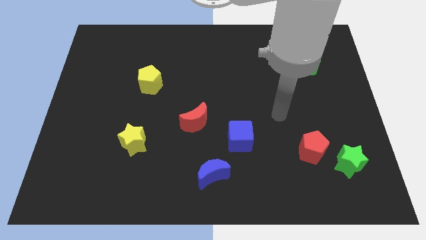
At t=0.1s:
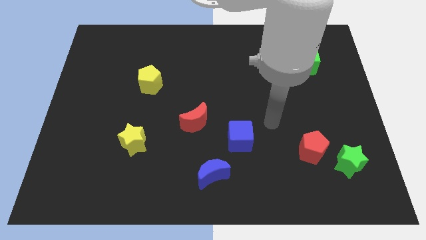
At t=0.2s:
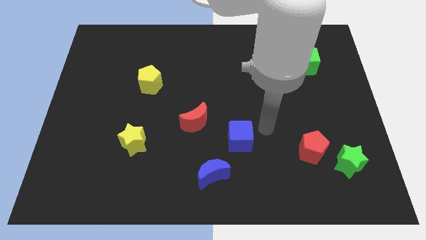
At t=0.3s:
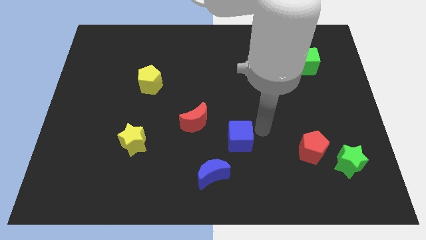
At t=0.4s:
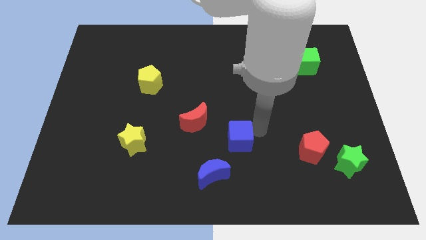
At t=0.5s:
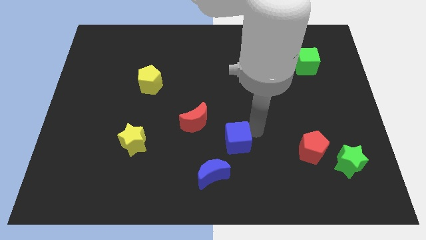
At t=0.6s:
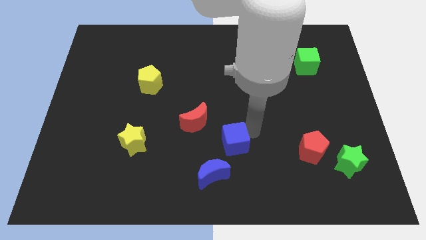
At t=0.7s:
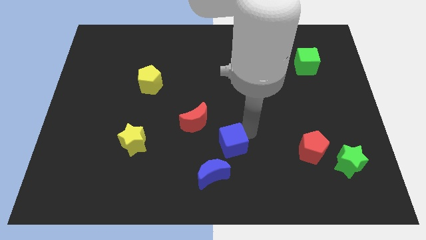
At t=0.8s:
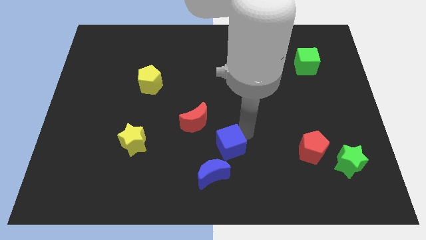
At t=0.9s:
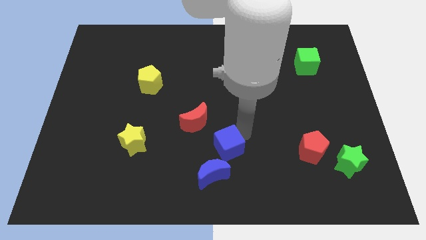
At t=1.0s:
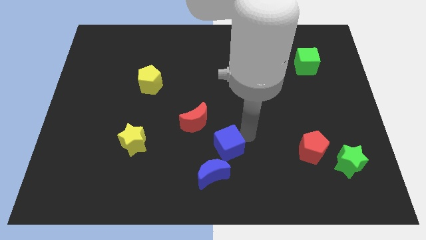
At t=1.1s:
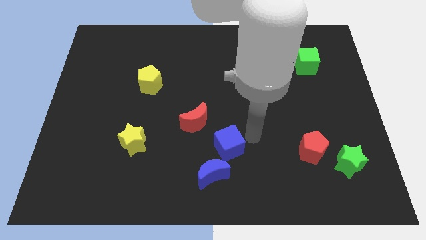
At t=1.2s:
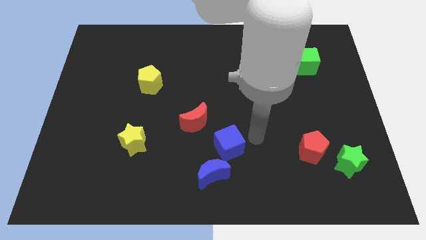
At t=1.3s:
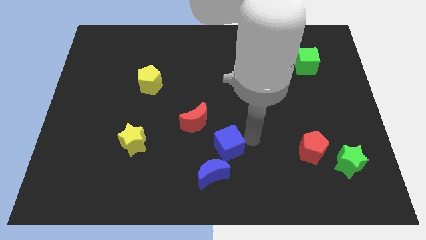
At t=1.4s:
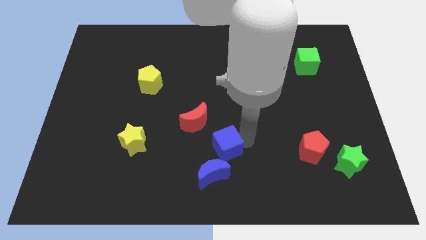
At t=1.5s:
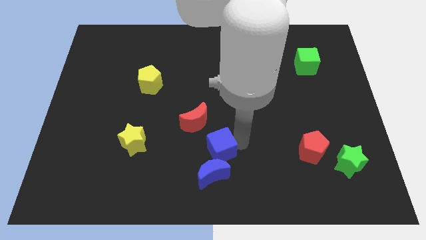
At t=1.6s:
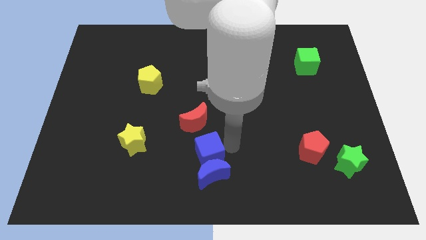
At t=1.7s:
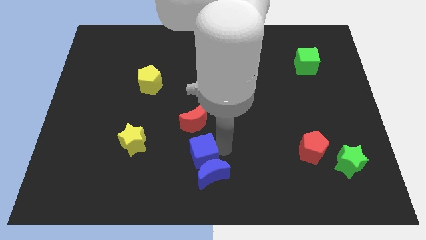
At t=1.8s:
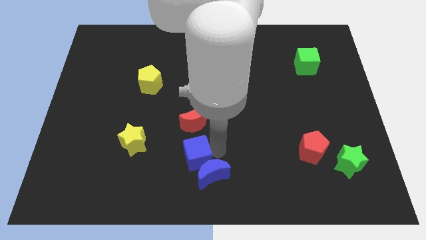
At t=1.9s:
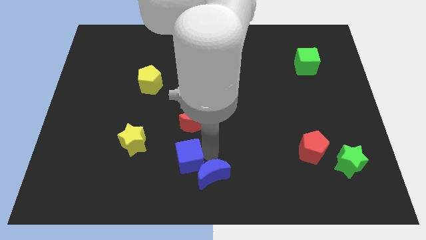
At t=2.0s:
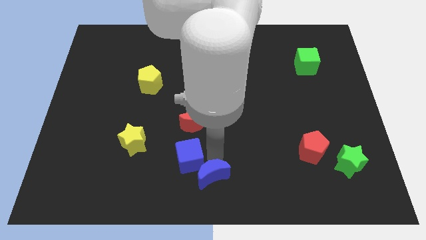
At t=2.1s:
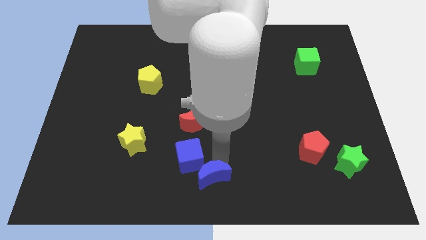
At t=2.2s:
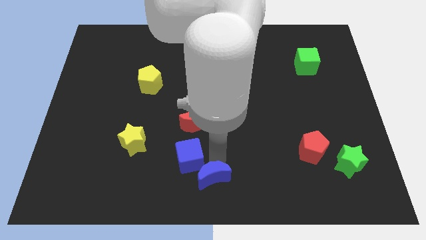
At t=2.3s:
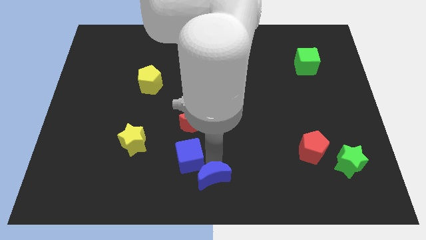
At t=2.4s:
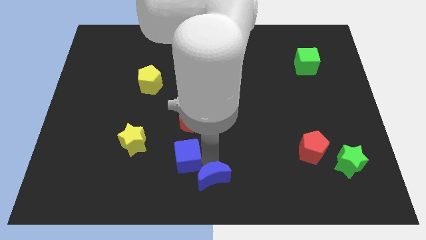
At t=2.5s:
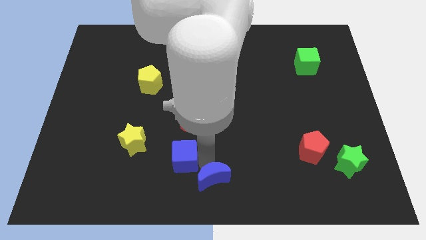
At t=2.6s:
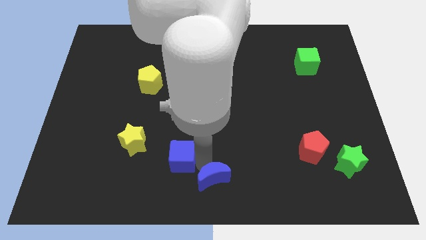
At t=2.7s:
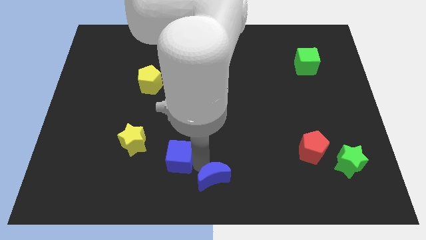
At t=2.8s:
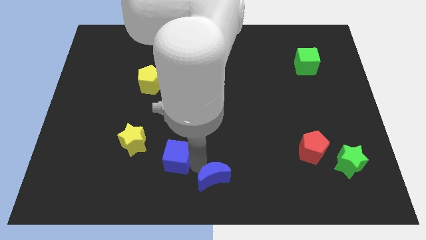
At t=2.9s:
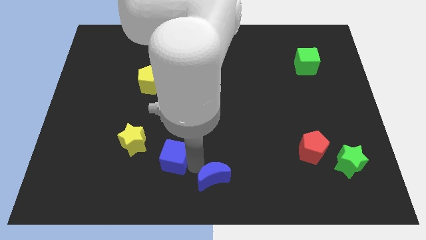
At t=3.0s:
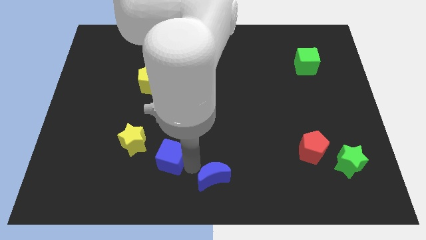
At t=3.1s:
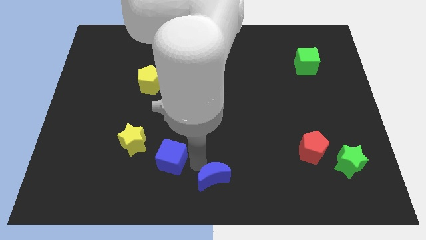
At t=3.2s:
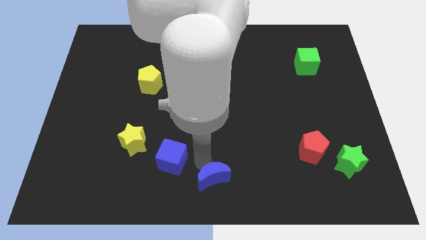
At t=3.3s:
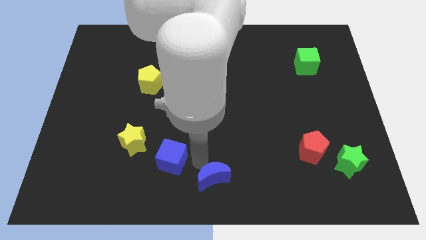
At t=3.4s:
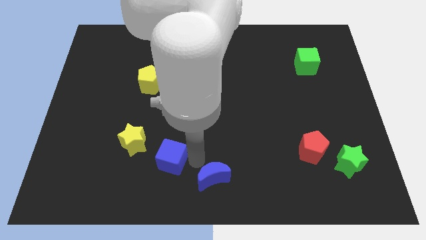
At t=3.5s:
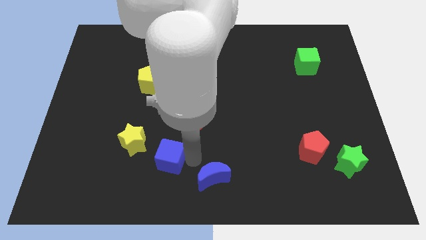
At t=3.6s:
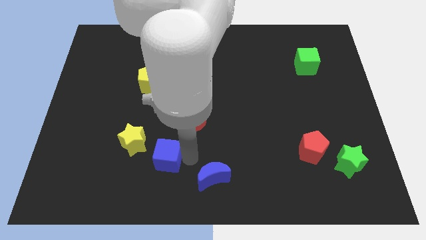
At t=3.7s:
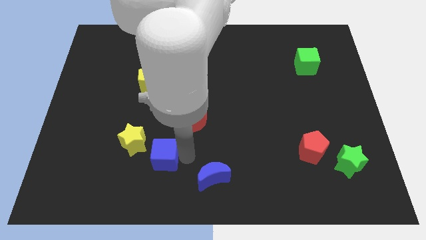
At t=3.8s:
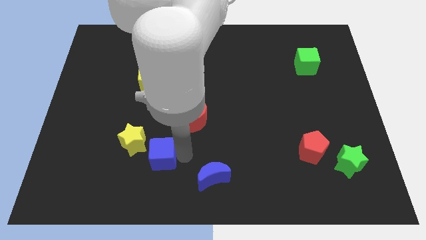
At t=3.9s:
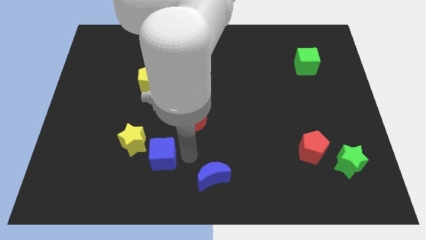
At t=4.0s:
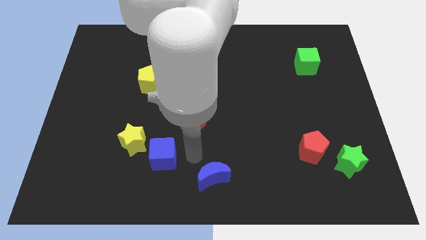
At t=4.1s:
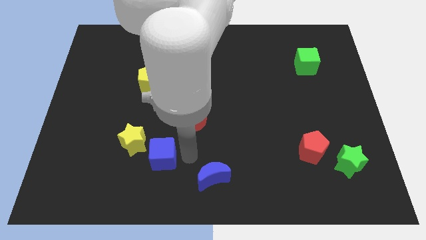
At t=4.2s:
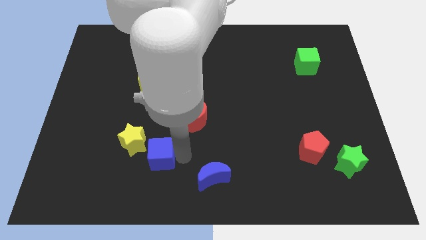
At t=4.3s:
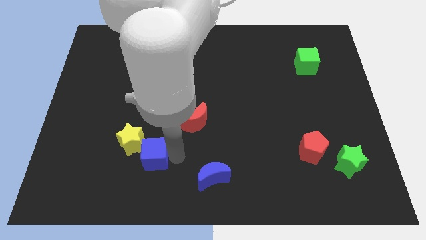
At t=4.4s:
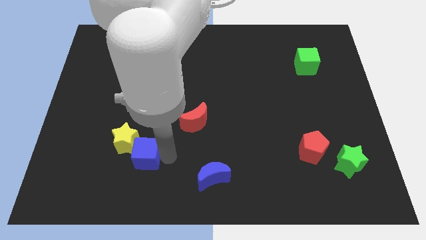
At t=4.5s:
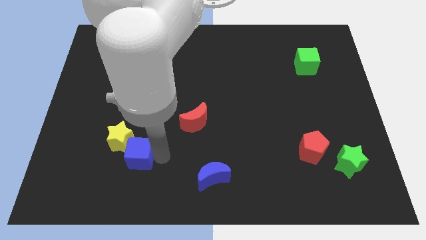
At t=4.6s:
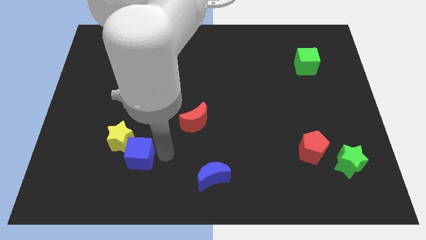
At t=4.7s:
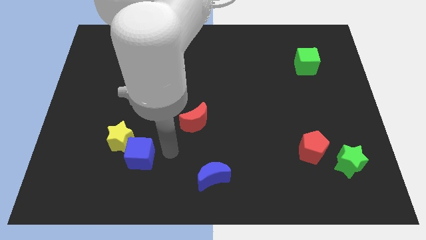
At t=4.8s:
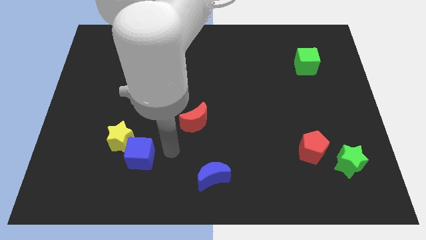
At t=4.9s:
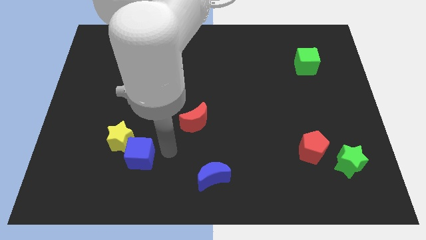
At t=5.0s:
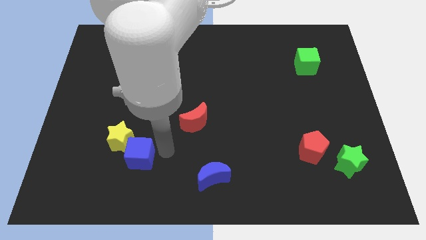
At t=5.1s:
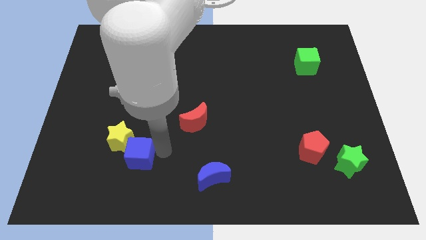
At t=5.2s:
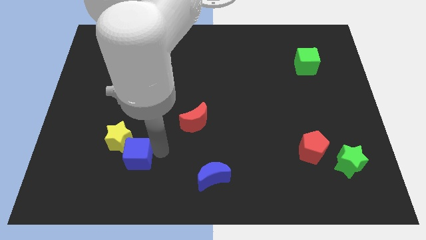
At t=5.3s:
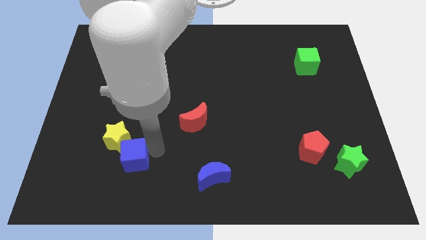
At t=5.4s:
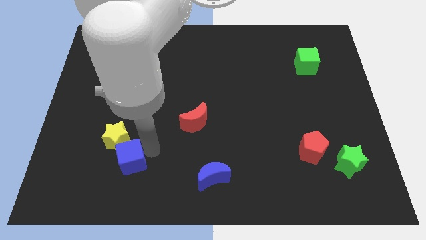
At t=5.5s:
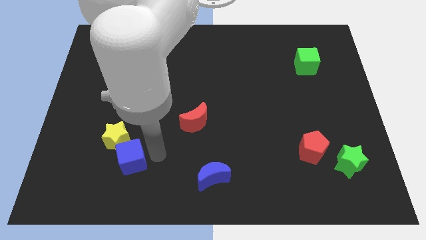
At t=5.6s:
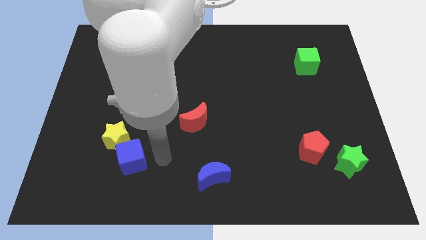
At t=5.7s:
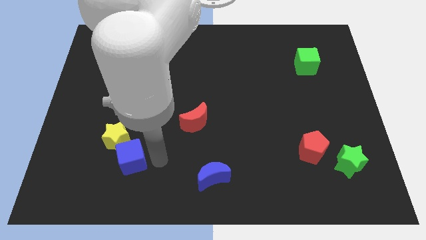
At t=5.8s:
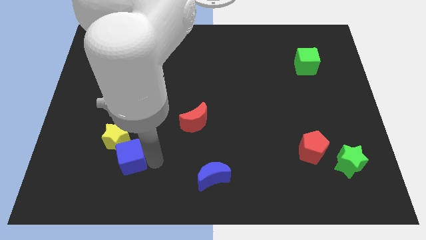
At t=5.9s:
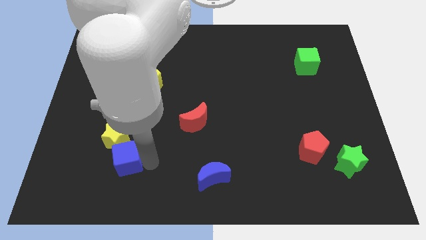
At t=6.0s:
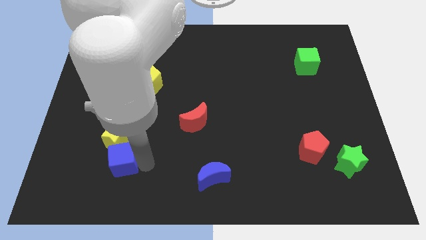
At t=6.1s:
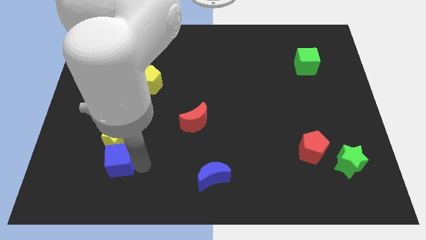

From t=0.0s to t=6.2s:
move the blue cube to the bottom left side of the yellow star
